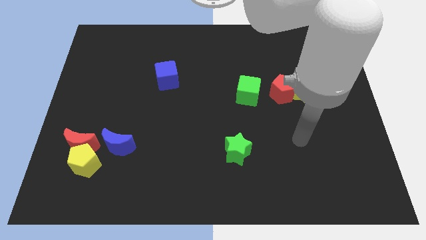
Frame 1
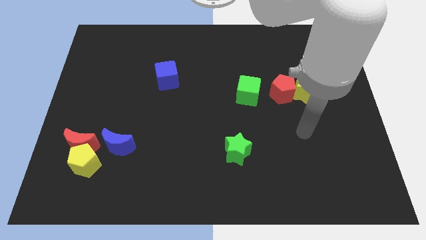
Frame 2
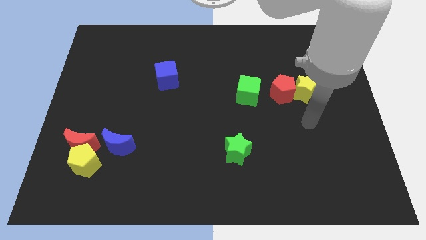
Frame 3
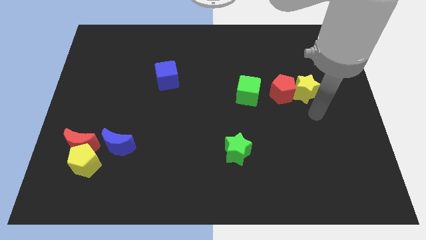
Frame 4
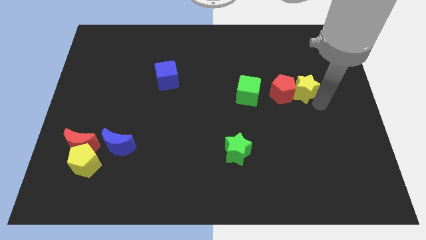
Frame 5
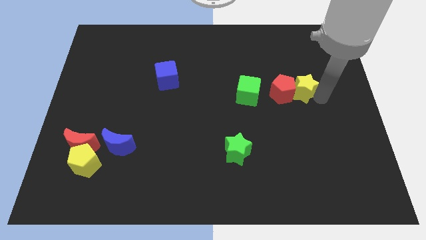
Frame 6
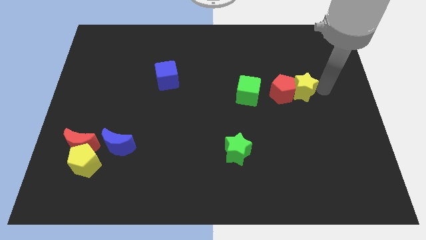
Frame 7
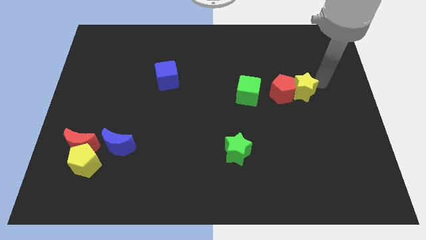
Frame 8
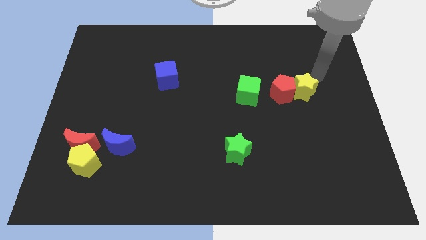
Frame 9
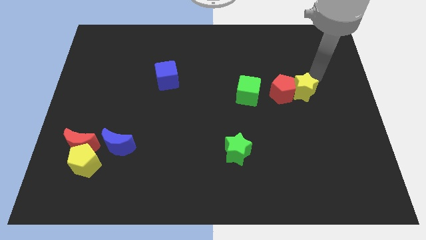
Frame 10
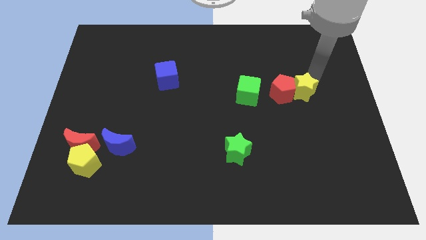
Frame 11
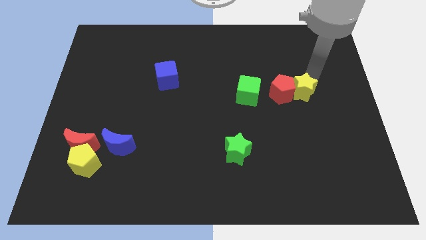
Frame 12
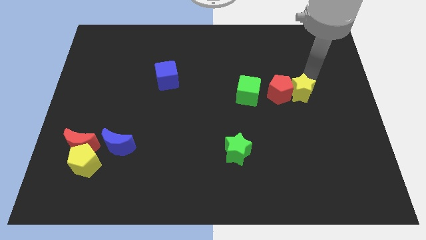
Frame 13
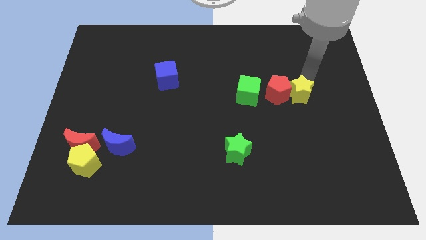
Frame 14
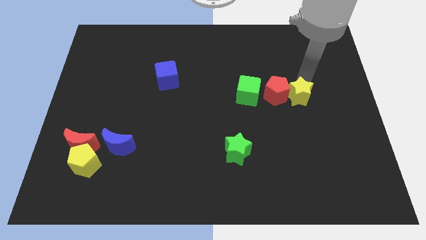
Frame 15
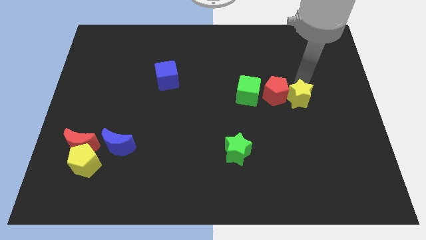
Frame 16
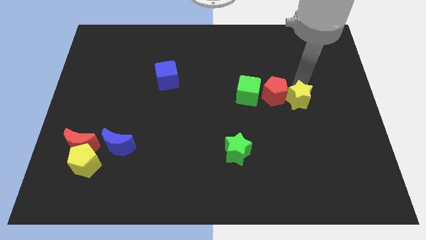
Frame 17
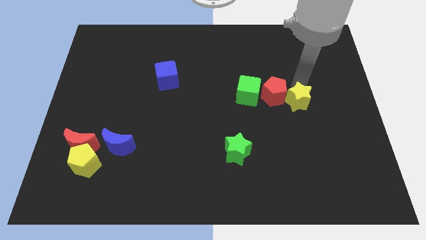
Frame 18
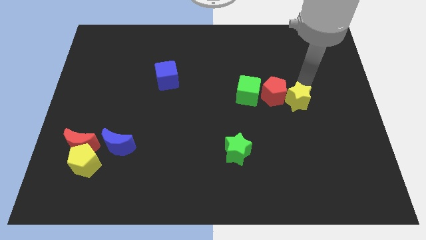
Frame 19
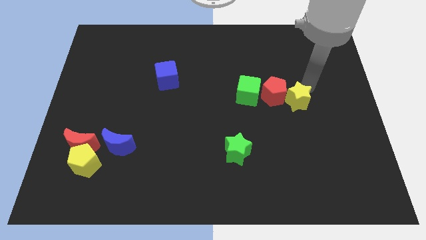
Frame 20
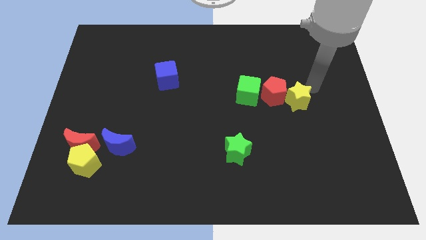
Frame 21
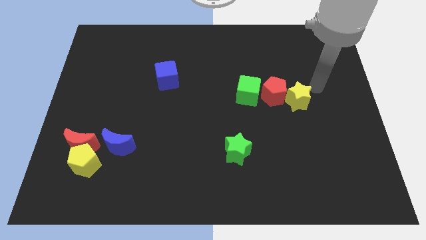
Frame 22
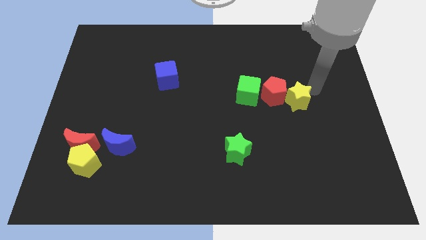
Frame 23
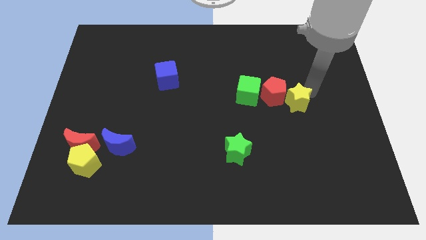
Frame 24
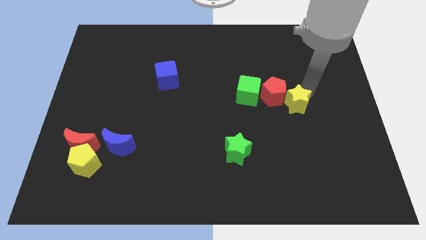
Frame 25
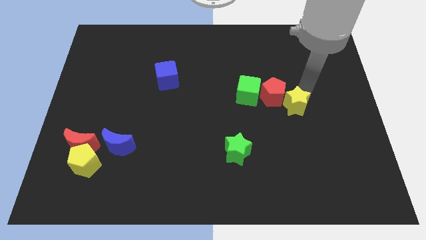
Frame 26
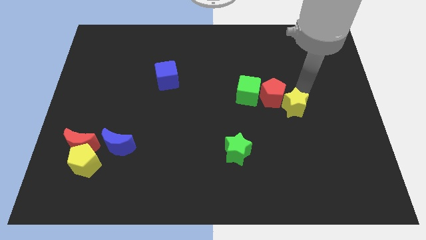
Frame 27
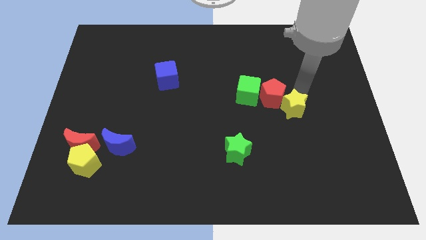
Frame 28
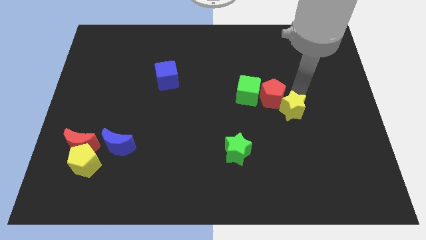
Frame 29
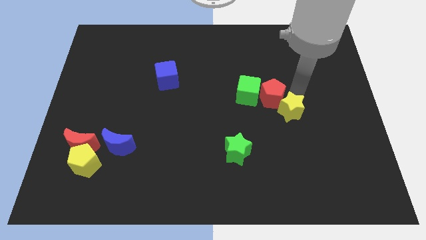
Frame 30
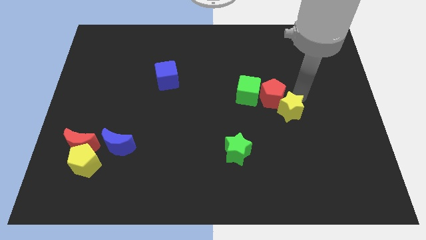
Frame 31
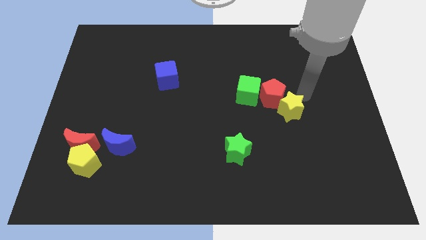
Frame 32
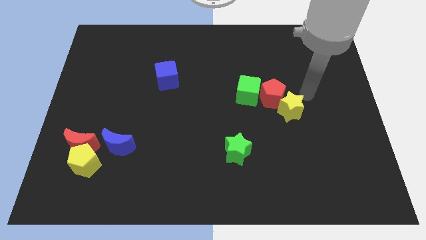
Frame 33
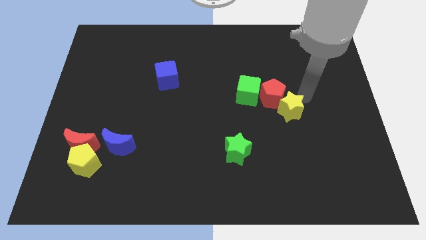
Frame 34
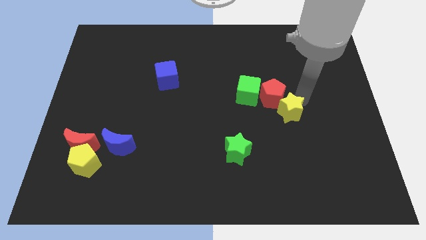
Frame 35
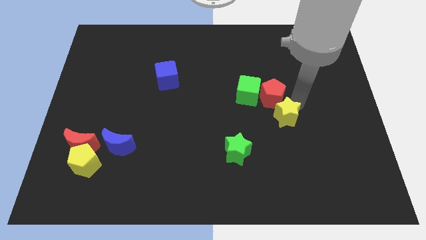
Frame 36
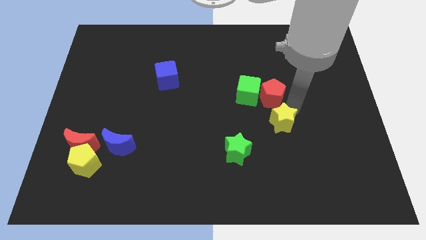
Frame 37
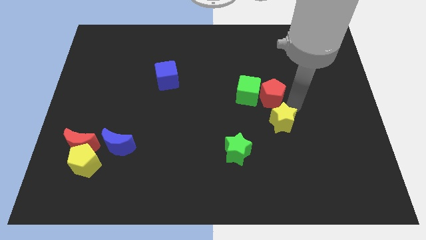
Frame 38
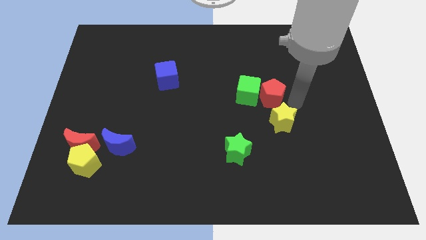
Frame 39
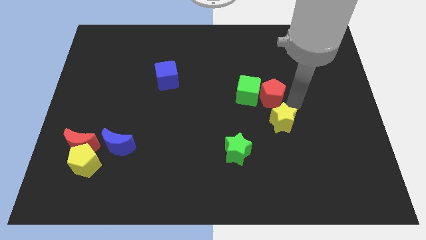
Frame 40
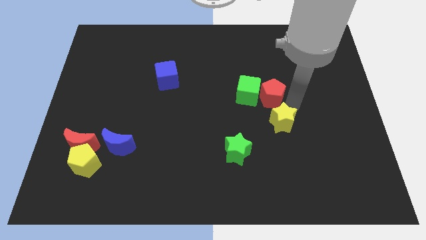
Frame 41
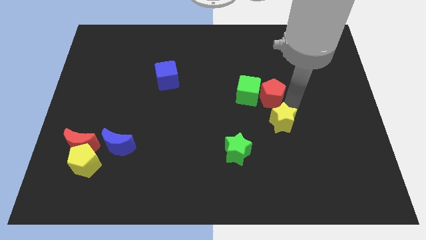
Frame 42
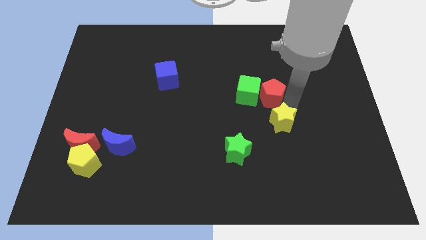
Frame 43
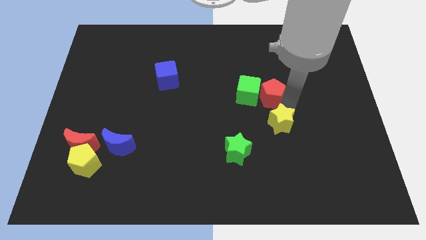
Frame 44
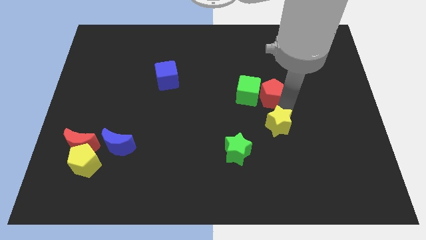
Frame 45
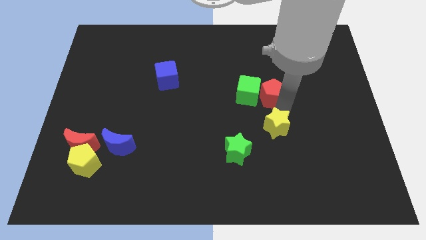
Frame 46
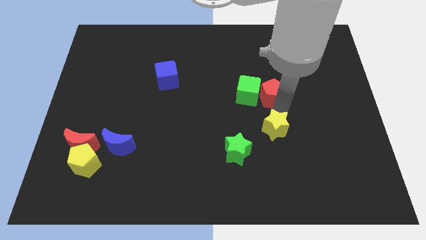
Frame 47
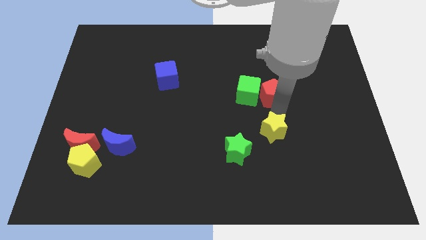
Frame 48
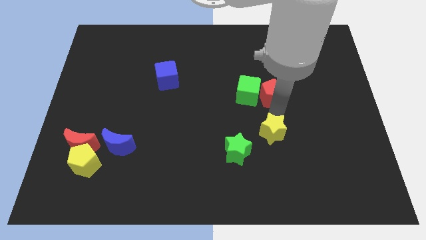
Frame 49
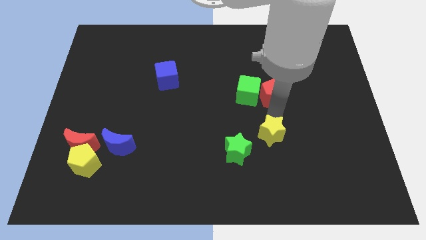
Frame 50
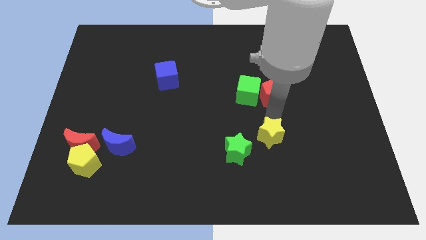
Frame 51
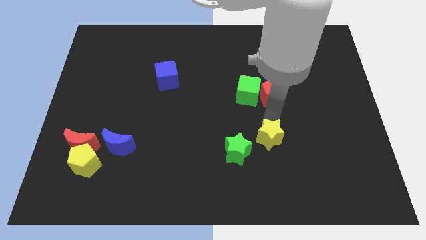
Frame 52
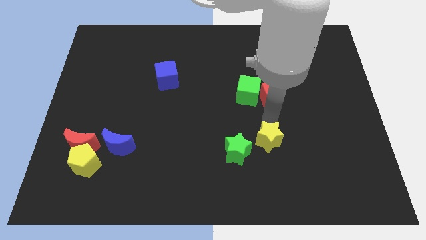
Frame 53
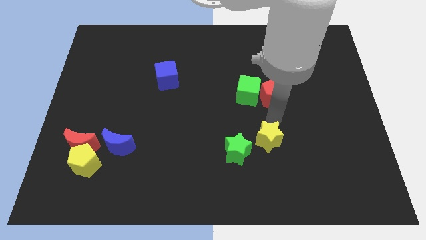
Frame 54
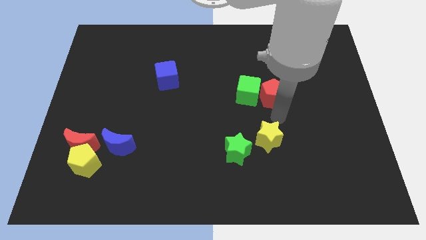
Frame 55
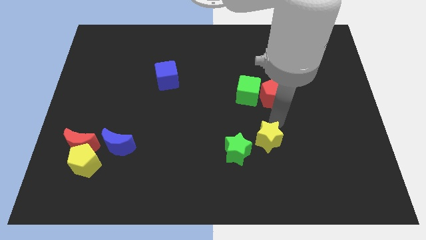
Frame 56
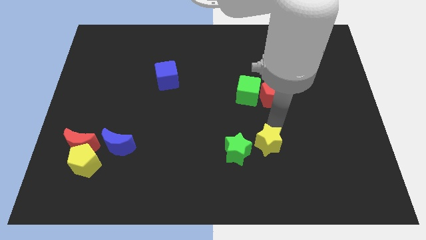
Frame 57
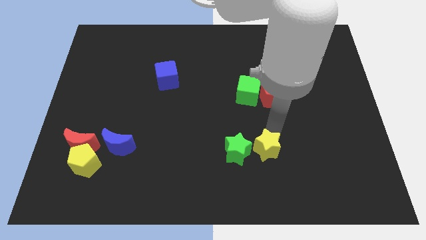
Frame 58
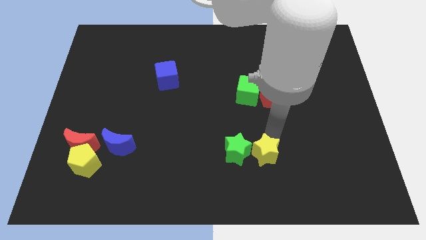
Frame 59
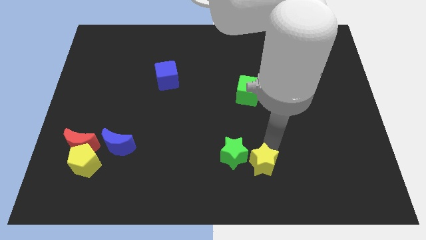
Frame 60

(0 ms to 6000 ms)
move the yellow star diagonally downwards and to the left

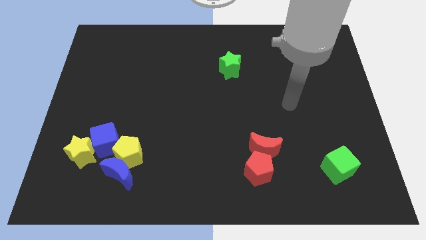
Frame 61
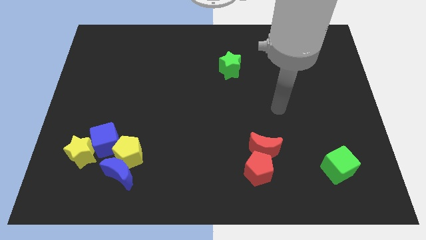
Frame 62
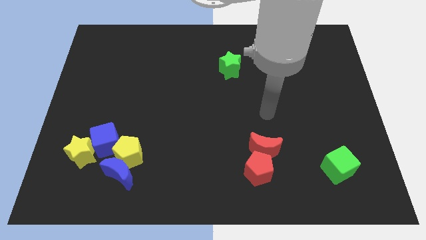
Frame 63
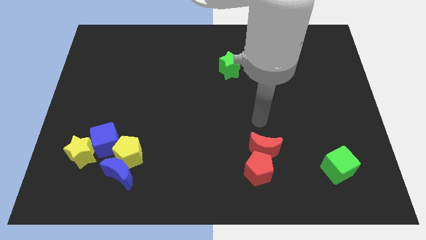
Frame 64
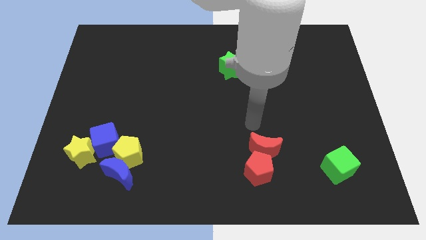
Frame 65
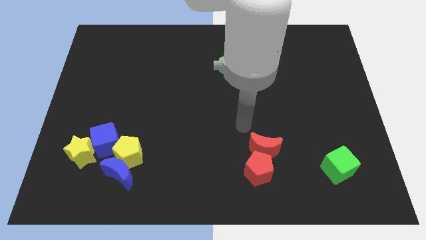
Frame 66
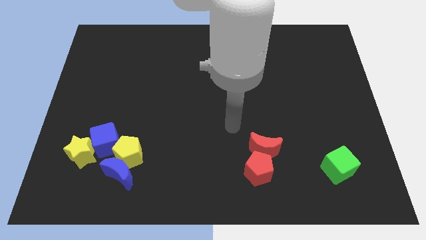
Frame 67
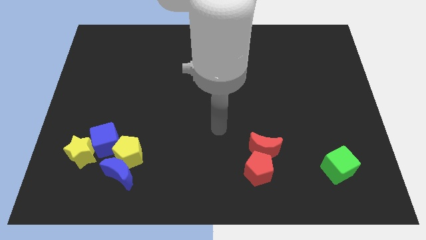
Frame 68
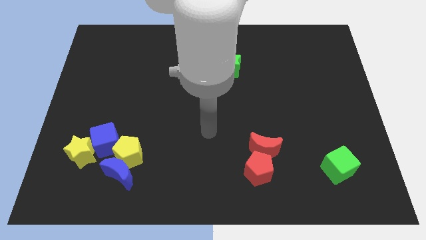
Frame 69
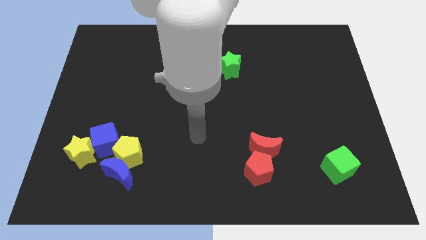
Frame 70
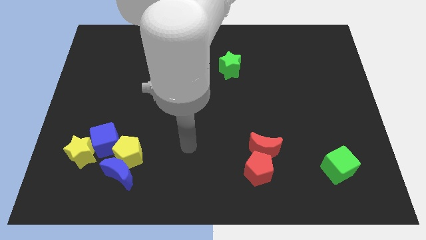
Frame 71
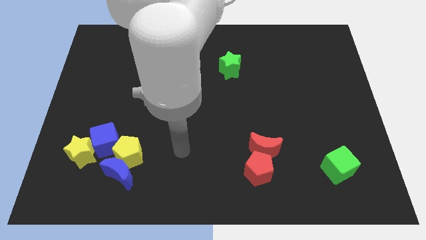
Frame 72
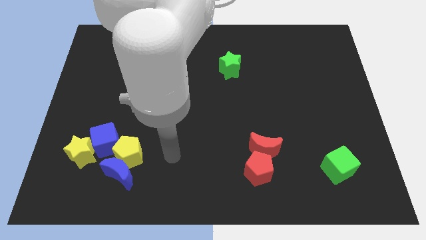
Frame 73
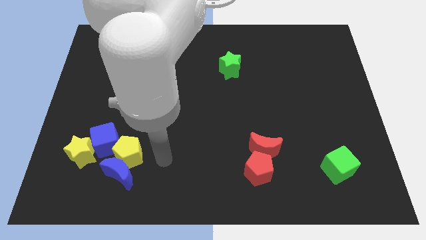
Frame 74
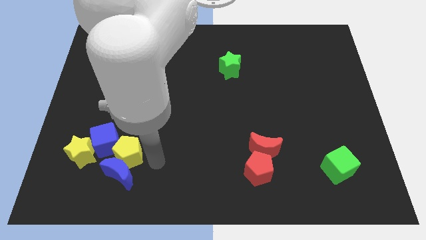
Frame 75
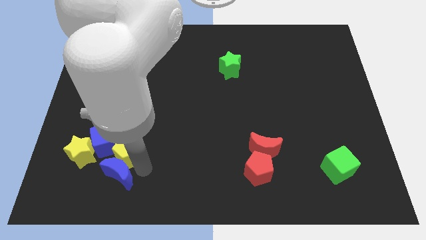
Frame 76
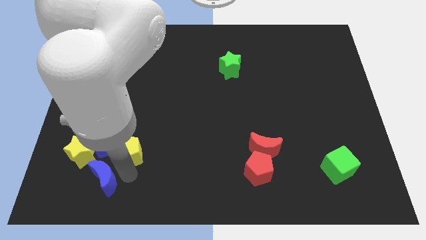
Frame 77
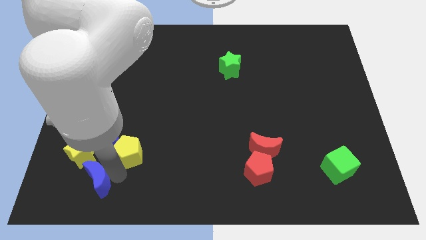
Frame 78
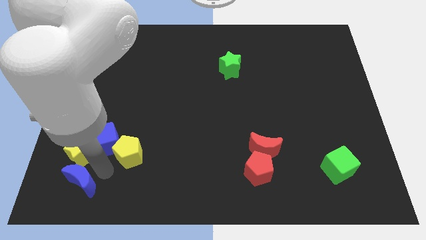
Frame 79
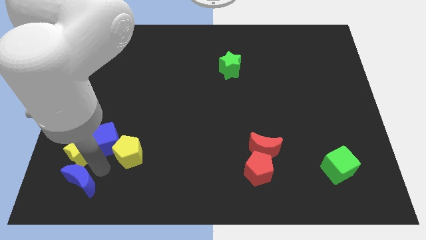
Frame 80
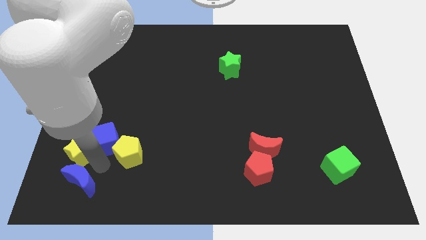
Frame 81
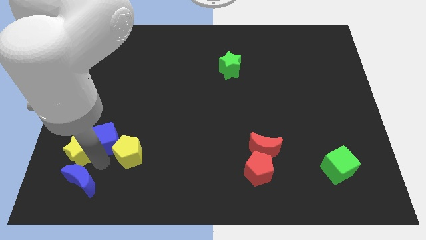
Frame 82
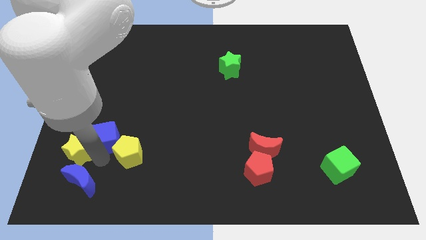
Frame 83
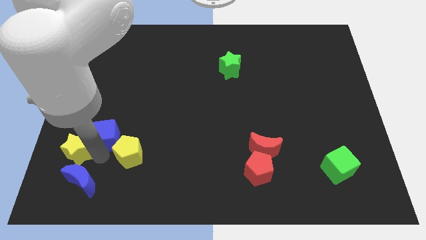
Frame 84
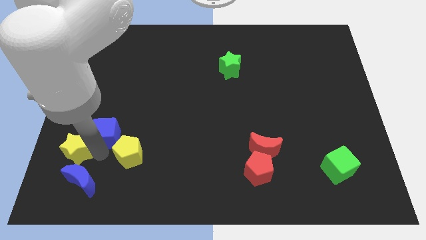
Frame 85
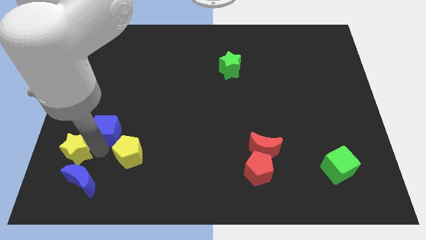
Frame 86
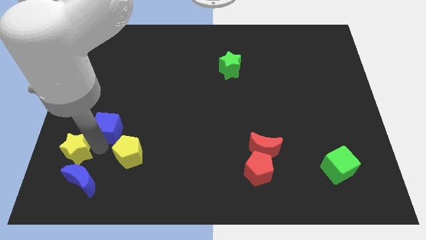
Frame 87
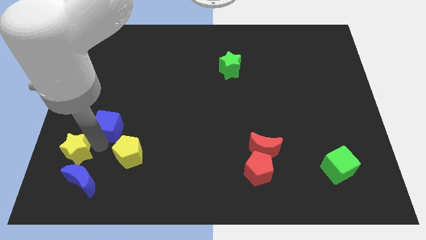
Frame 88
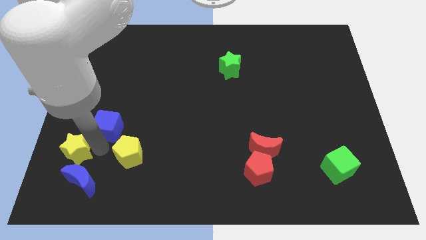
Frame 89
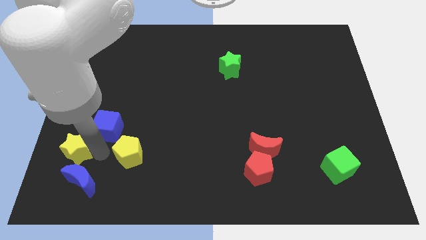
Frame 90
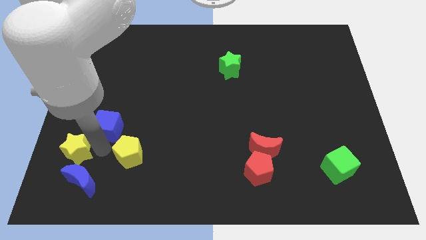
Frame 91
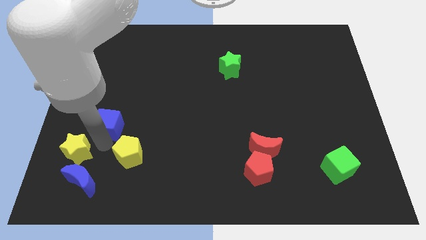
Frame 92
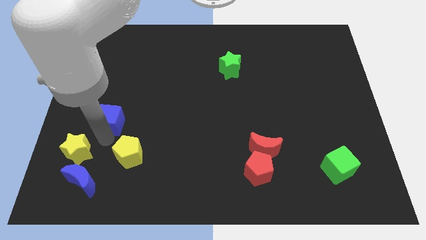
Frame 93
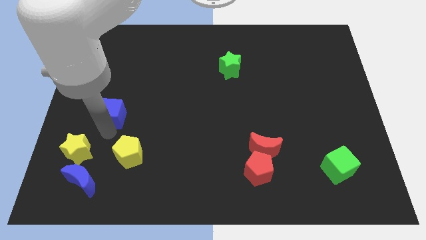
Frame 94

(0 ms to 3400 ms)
move the blue cube up somewhat
